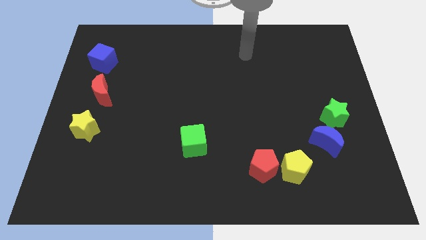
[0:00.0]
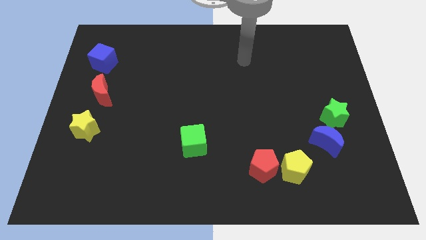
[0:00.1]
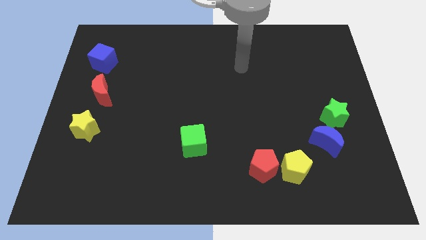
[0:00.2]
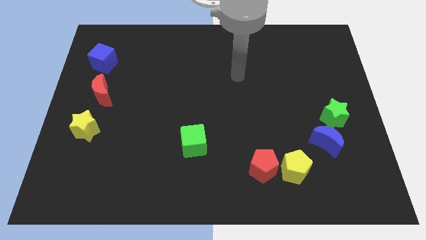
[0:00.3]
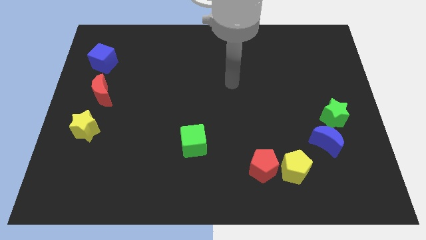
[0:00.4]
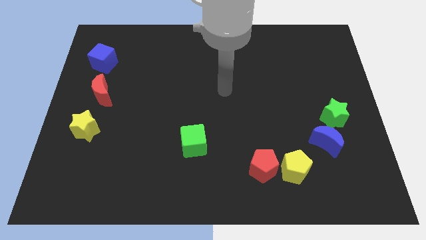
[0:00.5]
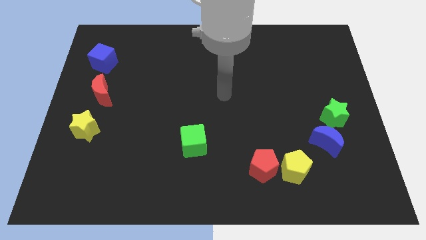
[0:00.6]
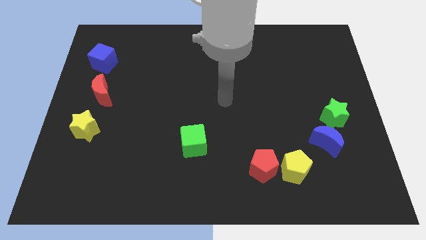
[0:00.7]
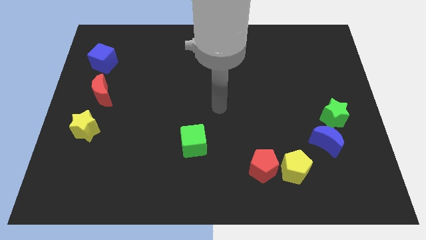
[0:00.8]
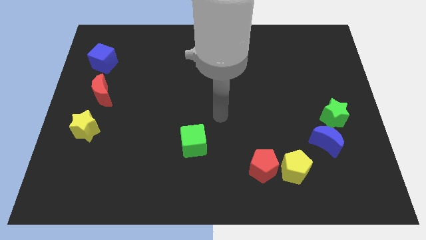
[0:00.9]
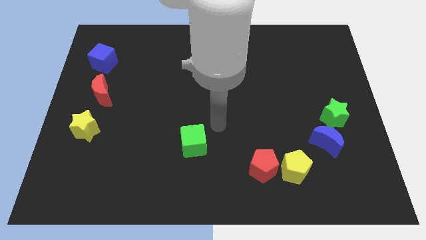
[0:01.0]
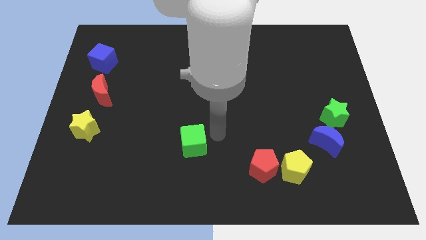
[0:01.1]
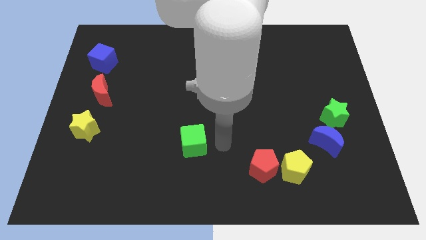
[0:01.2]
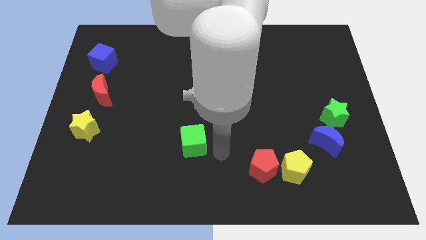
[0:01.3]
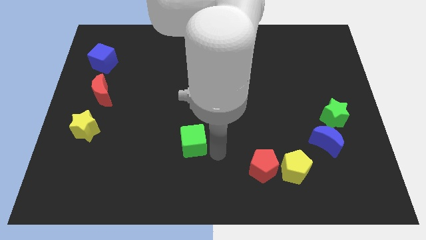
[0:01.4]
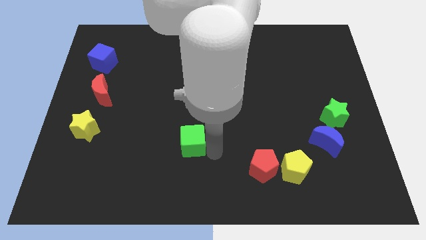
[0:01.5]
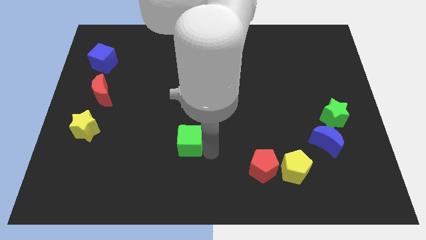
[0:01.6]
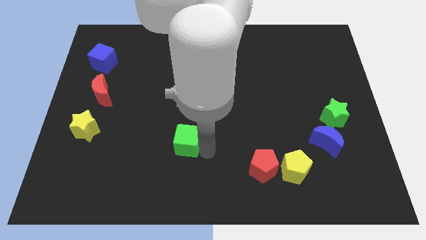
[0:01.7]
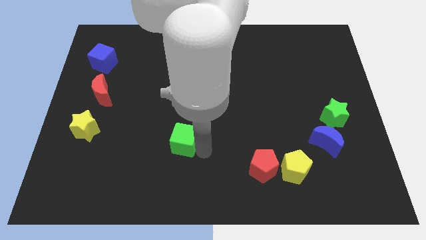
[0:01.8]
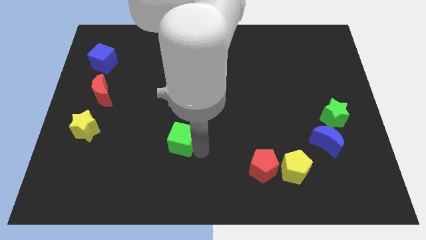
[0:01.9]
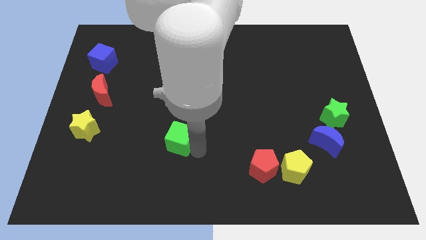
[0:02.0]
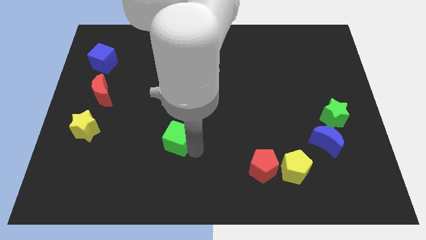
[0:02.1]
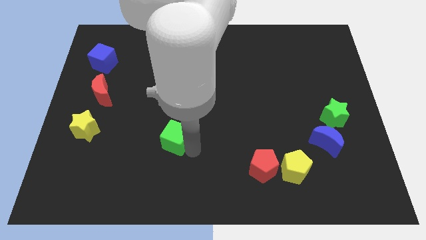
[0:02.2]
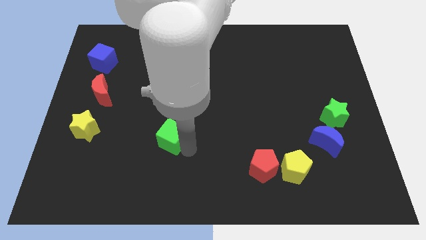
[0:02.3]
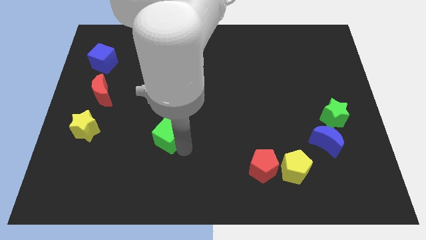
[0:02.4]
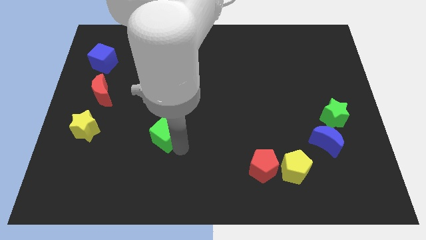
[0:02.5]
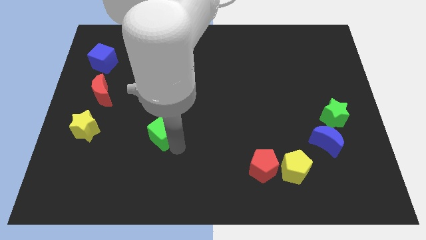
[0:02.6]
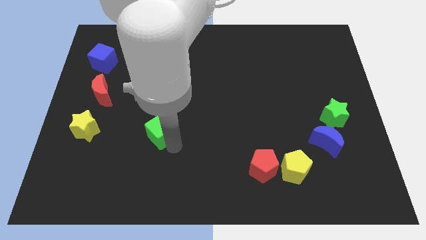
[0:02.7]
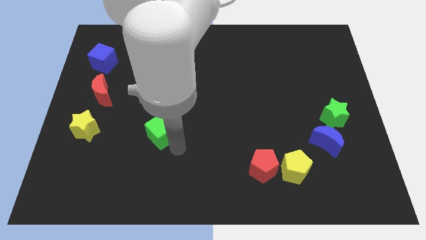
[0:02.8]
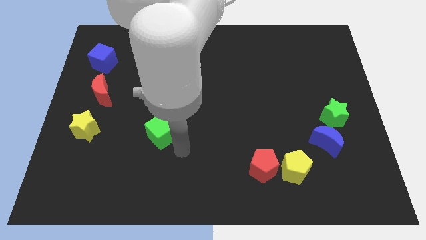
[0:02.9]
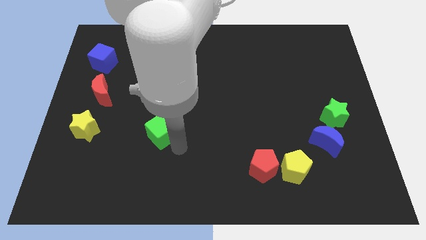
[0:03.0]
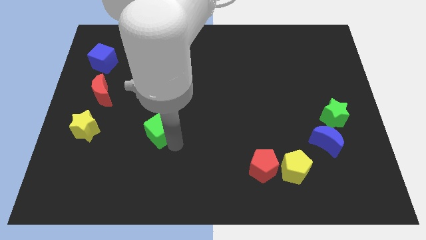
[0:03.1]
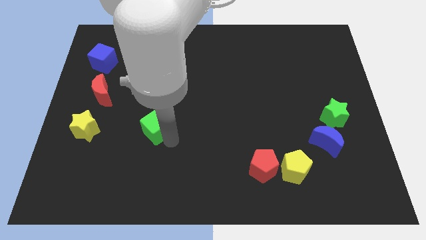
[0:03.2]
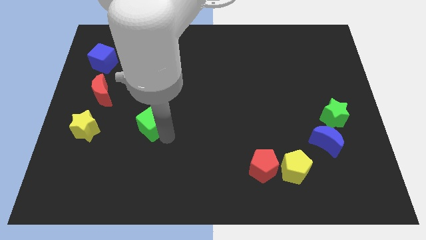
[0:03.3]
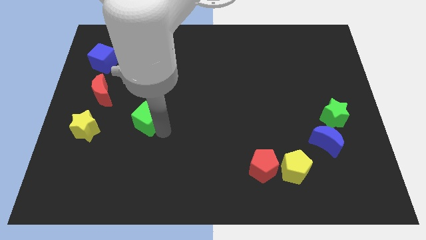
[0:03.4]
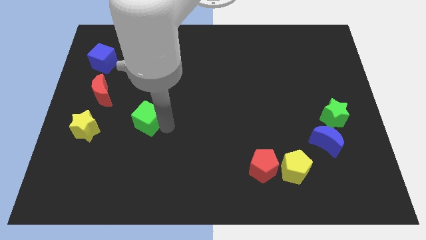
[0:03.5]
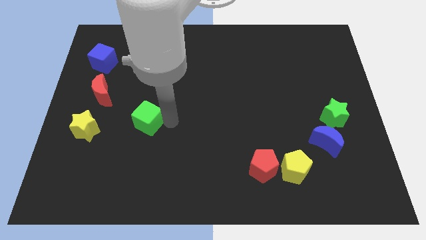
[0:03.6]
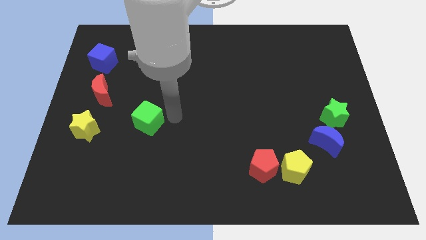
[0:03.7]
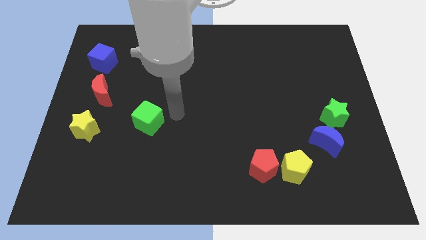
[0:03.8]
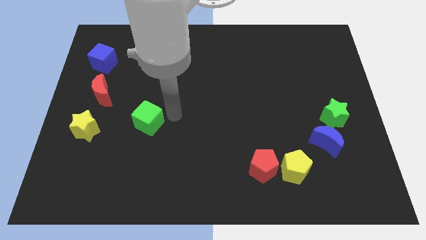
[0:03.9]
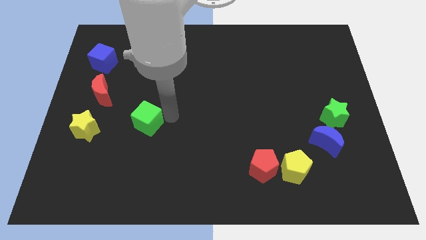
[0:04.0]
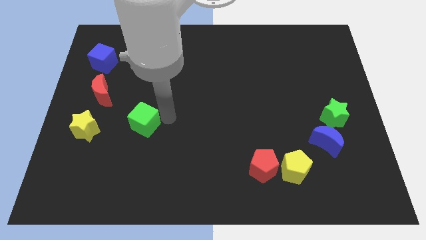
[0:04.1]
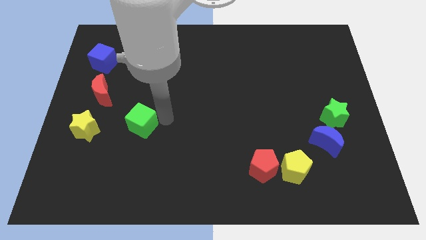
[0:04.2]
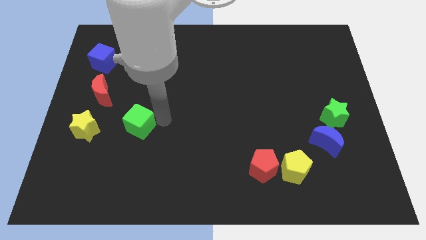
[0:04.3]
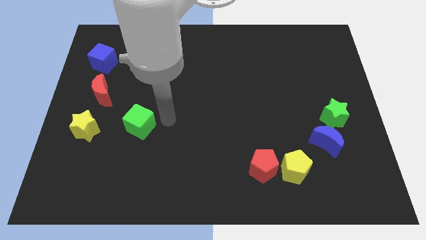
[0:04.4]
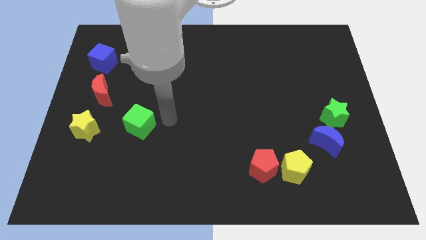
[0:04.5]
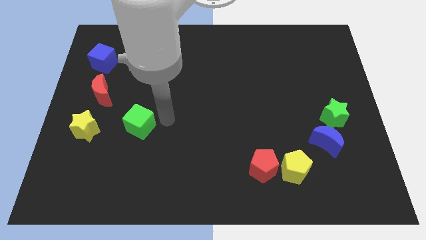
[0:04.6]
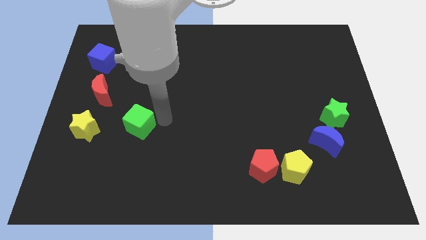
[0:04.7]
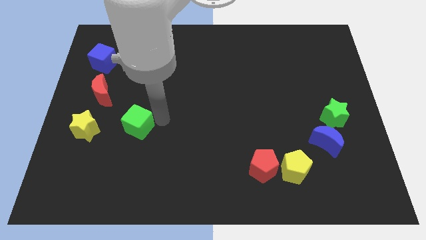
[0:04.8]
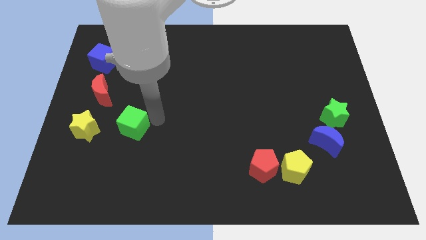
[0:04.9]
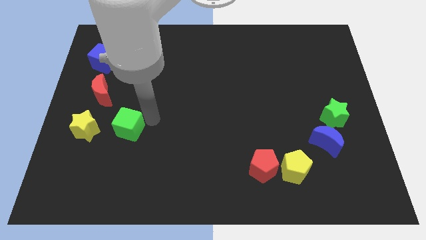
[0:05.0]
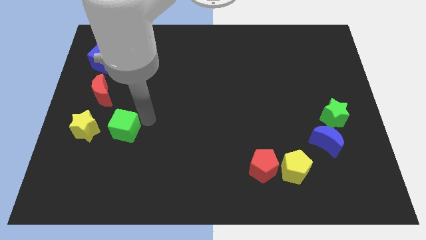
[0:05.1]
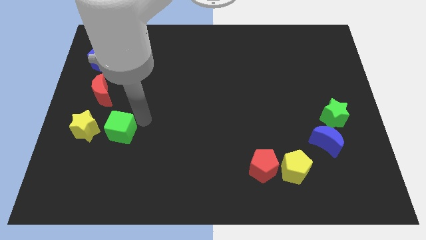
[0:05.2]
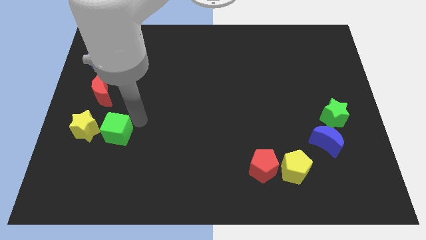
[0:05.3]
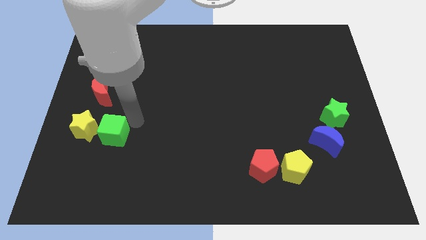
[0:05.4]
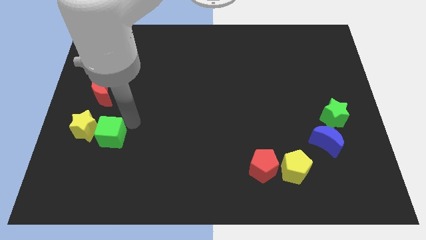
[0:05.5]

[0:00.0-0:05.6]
push the green cube to the yellow star

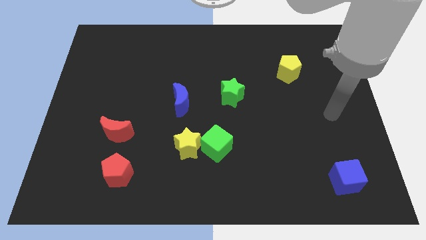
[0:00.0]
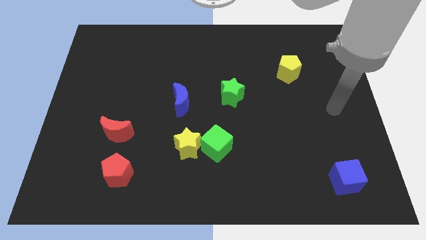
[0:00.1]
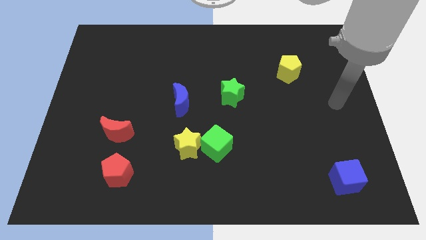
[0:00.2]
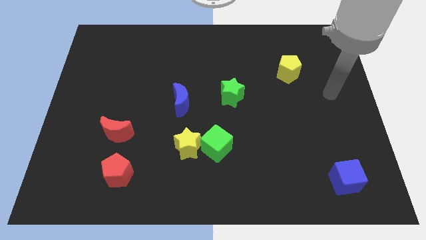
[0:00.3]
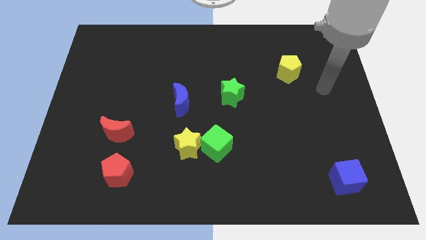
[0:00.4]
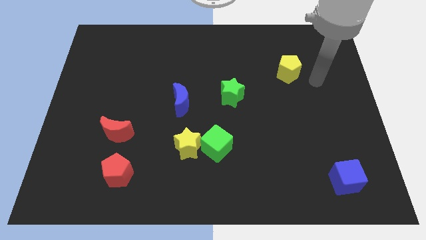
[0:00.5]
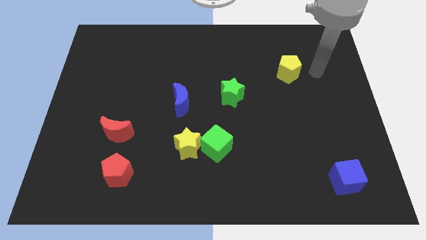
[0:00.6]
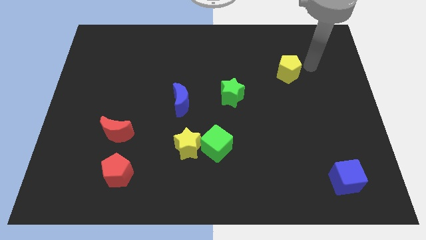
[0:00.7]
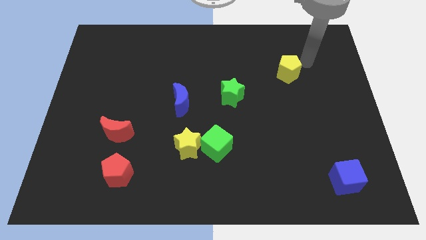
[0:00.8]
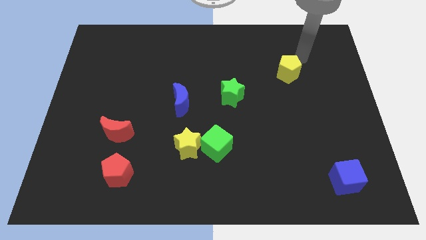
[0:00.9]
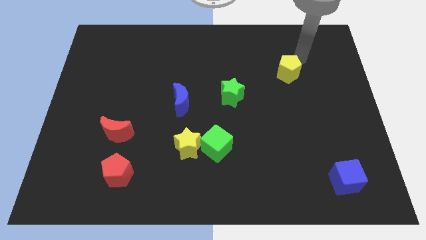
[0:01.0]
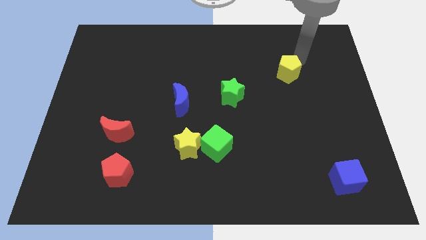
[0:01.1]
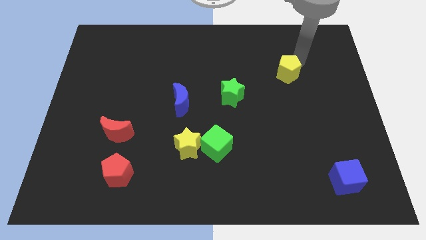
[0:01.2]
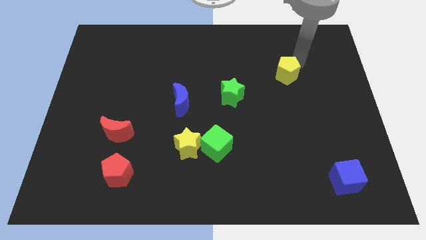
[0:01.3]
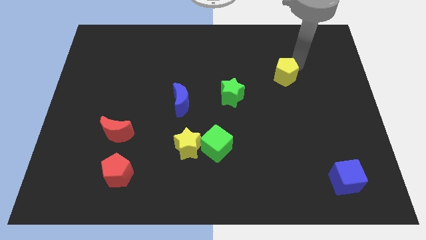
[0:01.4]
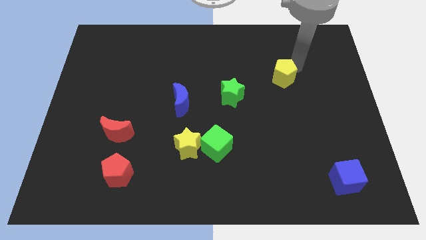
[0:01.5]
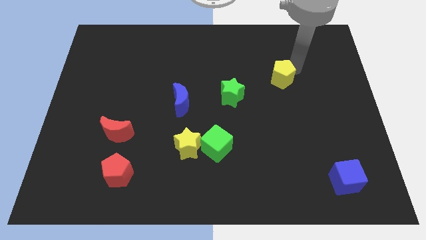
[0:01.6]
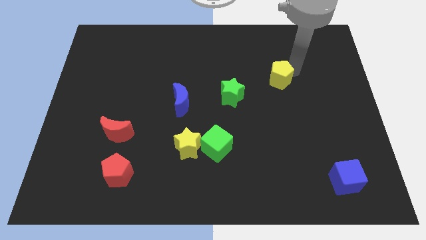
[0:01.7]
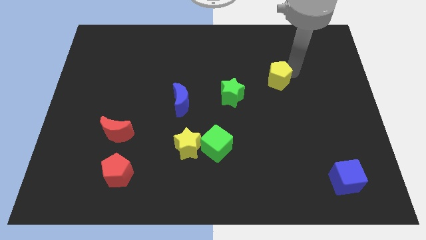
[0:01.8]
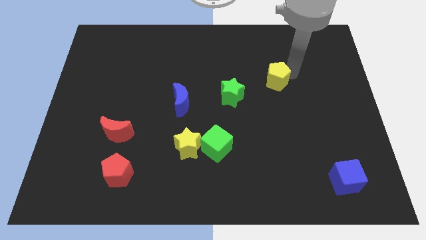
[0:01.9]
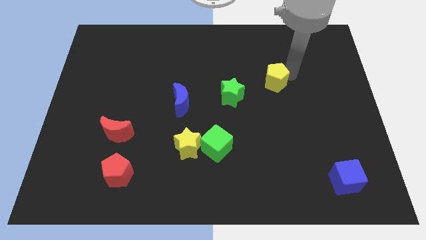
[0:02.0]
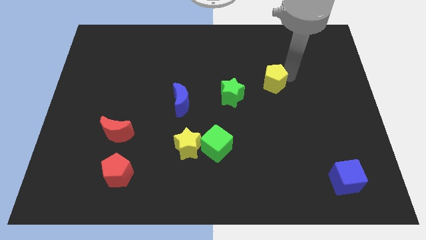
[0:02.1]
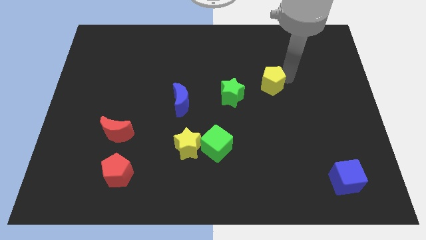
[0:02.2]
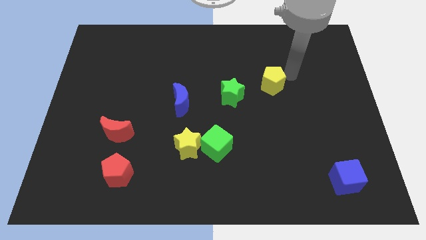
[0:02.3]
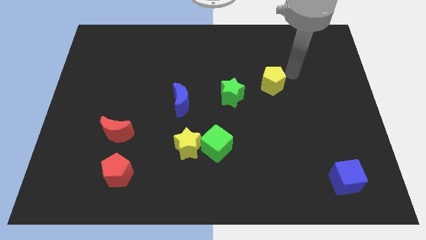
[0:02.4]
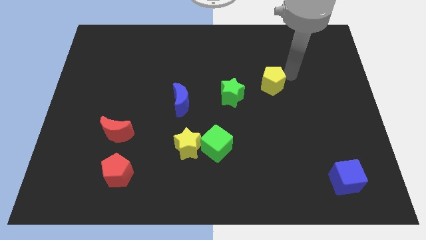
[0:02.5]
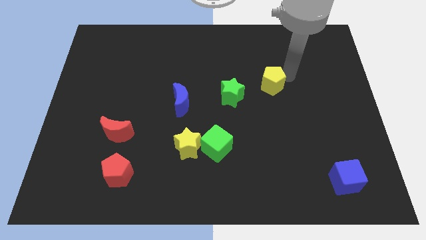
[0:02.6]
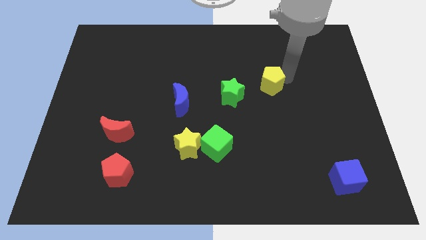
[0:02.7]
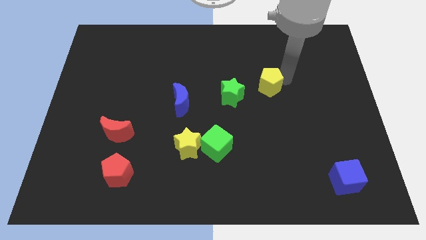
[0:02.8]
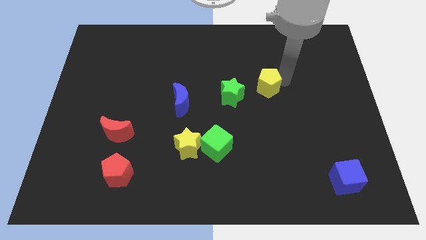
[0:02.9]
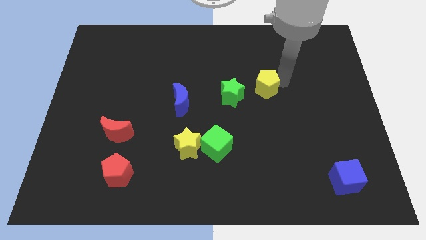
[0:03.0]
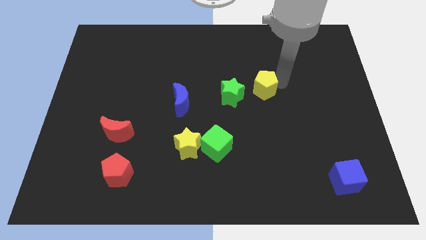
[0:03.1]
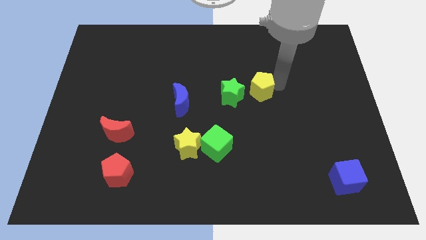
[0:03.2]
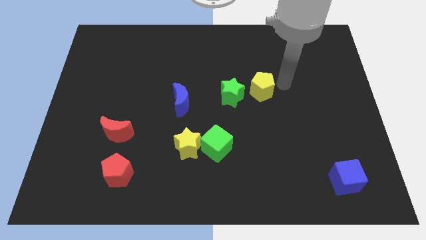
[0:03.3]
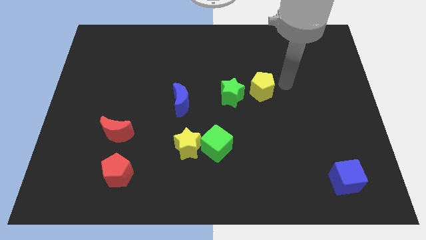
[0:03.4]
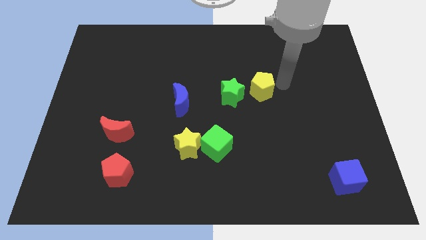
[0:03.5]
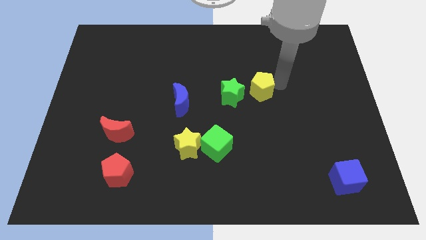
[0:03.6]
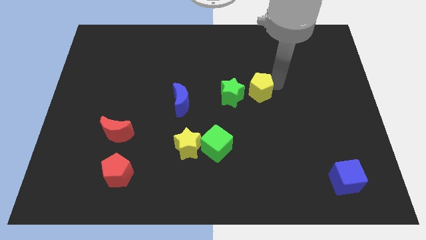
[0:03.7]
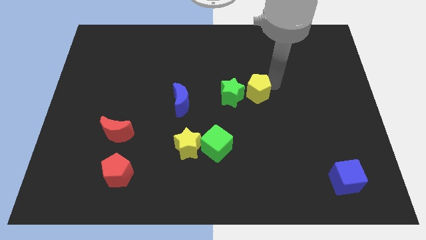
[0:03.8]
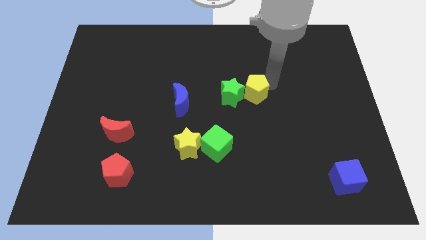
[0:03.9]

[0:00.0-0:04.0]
push the yellow pentagon towards the green star
